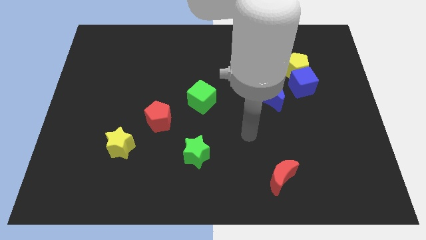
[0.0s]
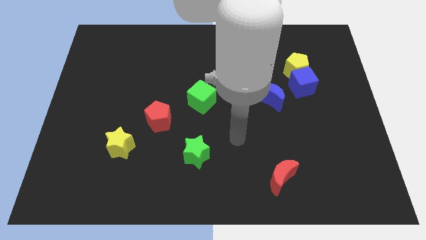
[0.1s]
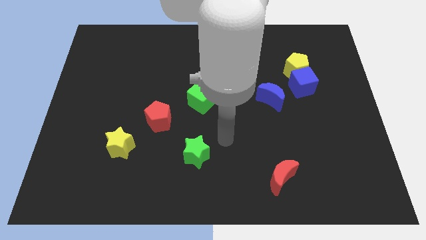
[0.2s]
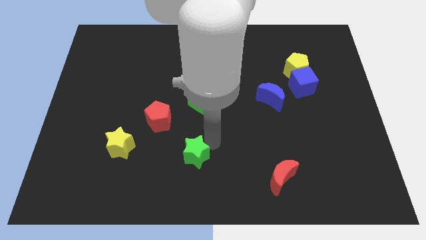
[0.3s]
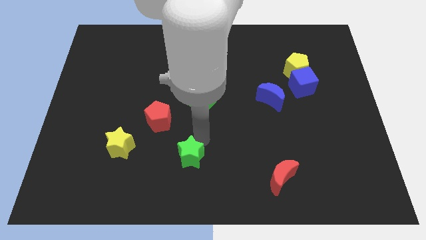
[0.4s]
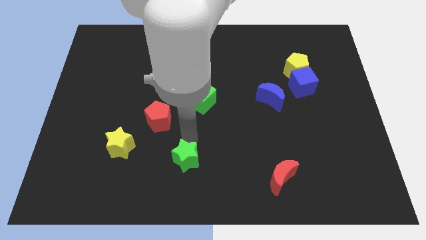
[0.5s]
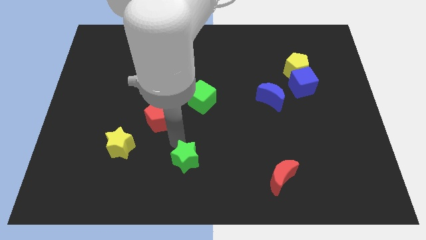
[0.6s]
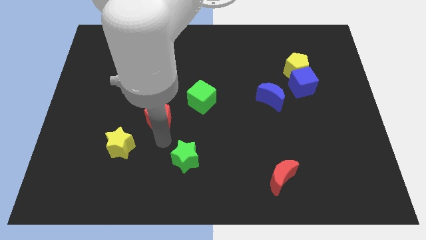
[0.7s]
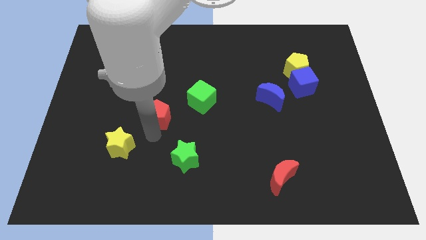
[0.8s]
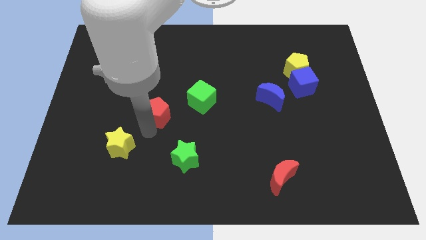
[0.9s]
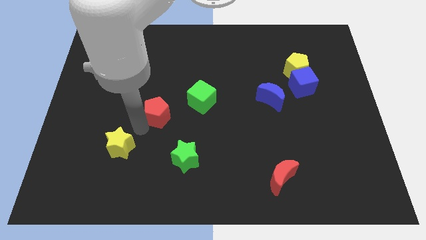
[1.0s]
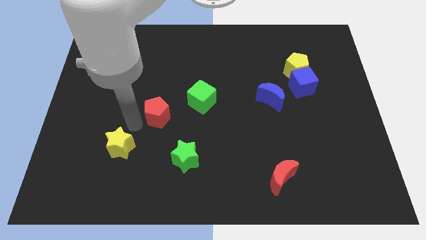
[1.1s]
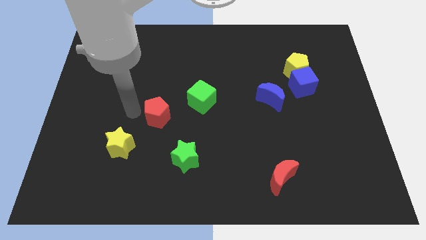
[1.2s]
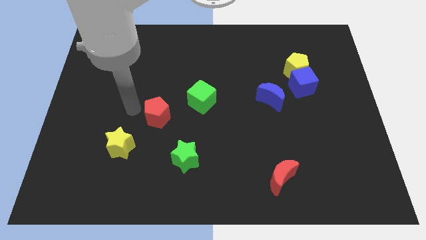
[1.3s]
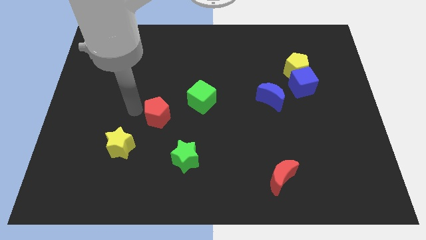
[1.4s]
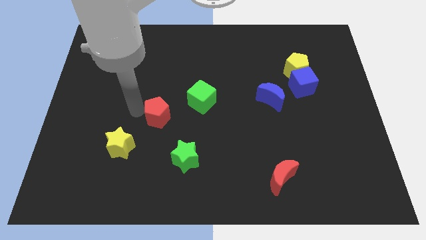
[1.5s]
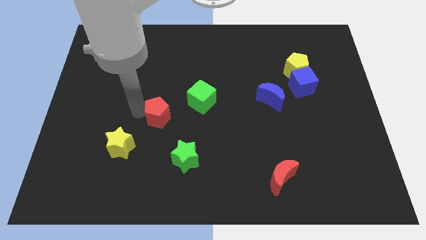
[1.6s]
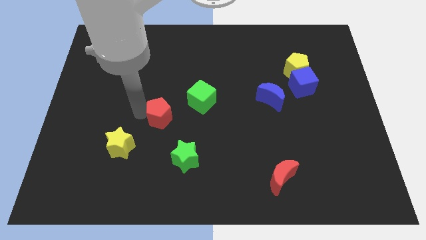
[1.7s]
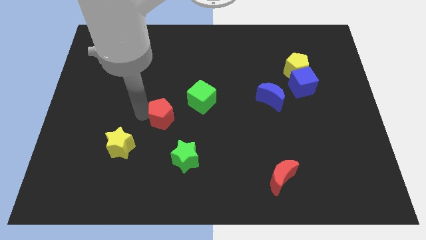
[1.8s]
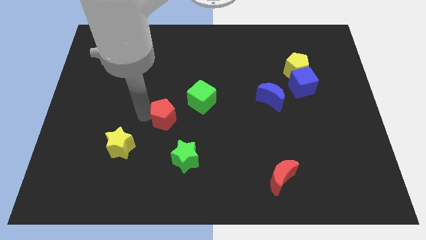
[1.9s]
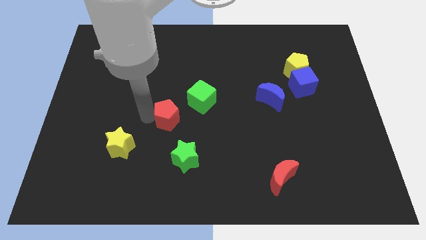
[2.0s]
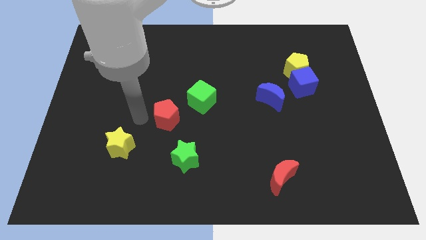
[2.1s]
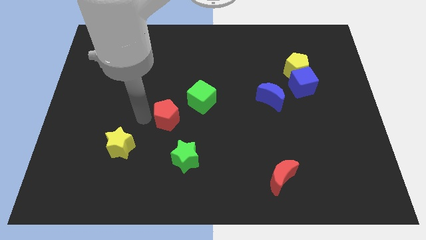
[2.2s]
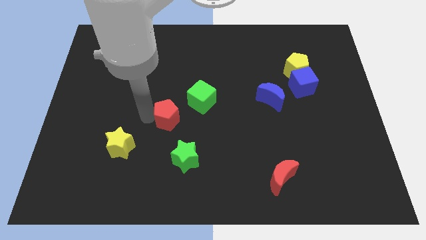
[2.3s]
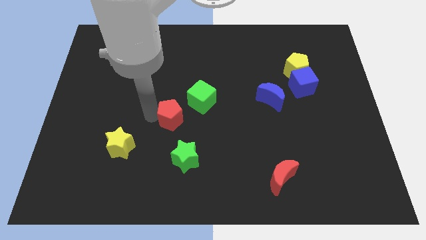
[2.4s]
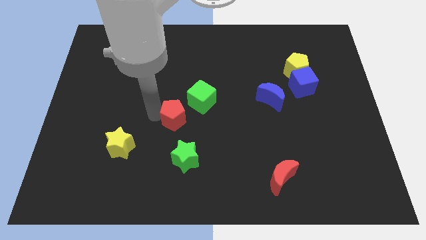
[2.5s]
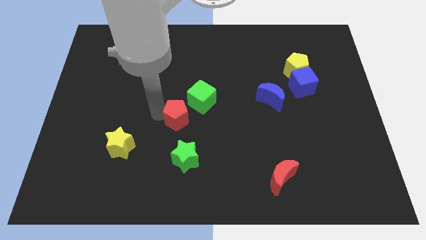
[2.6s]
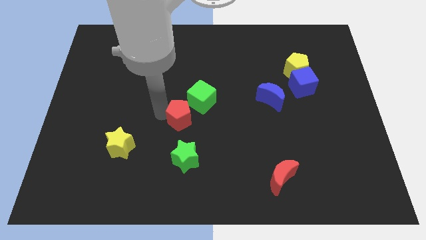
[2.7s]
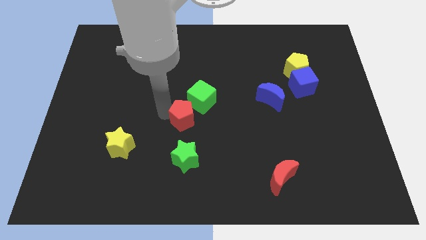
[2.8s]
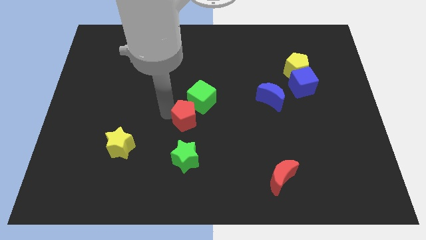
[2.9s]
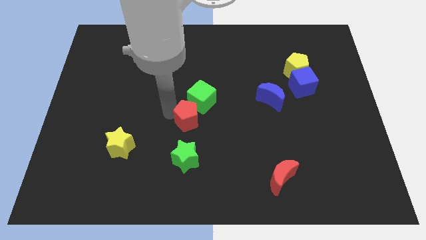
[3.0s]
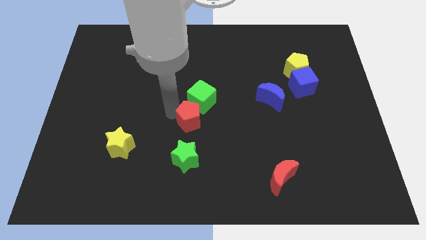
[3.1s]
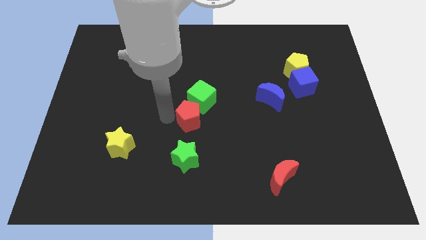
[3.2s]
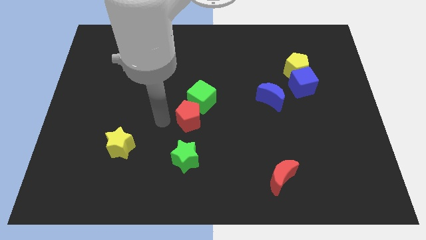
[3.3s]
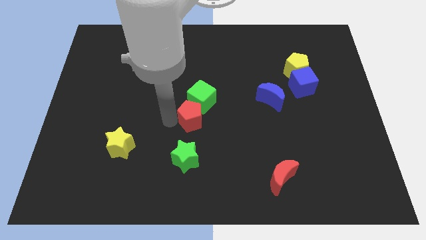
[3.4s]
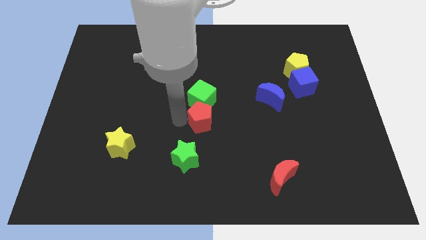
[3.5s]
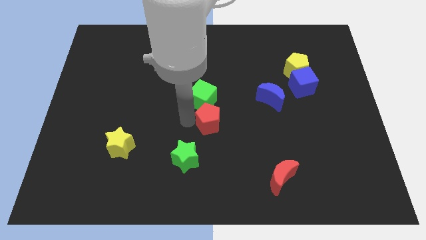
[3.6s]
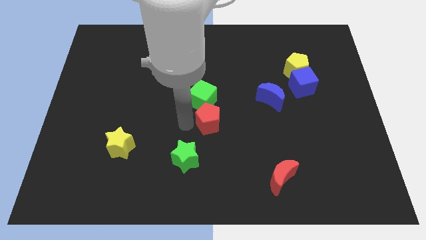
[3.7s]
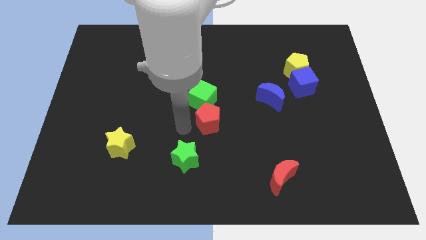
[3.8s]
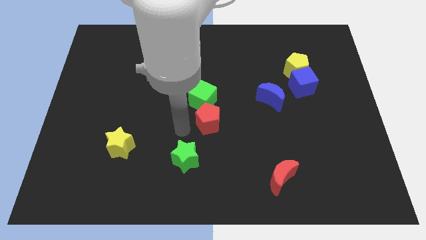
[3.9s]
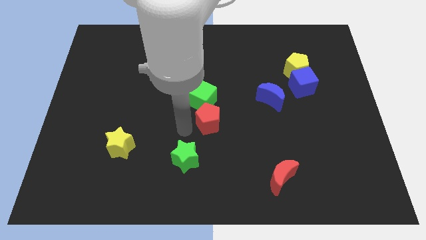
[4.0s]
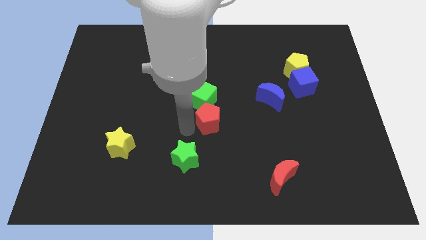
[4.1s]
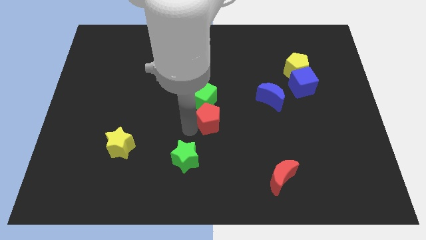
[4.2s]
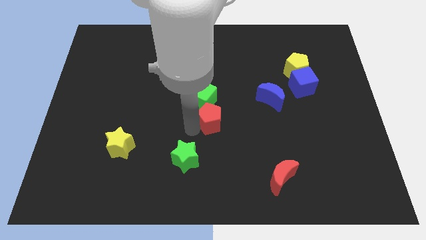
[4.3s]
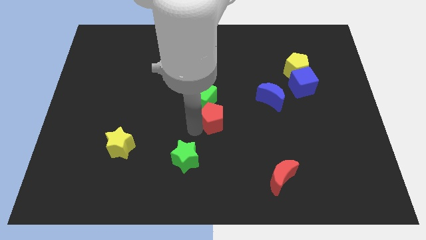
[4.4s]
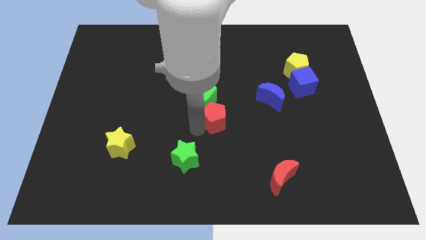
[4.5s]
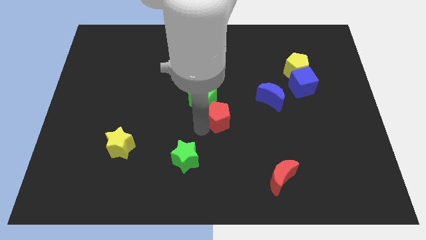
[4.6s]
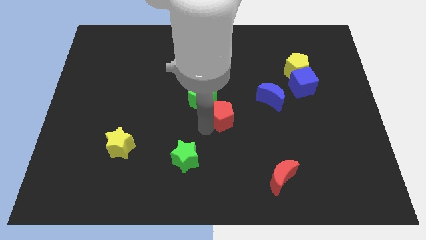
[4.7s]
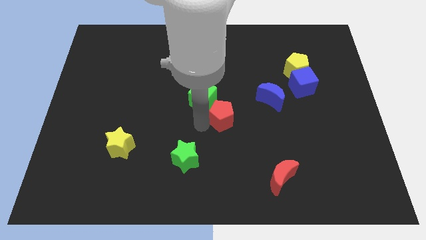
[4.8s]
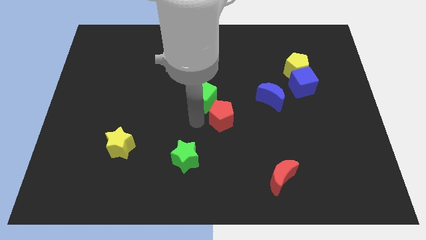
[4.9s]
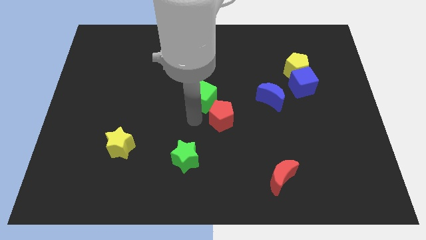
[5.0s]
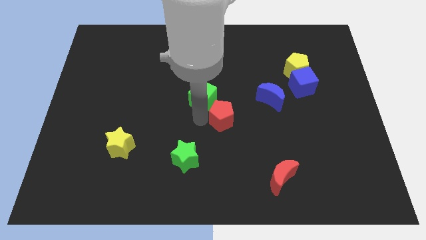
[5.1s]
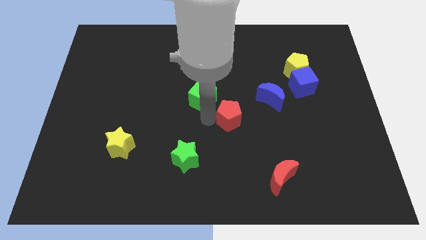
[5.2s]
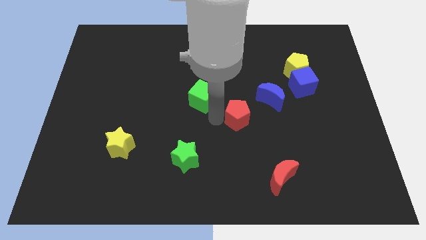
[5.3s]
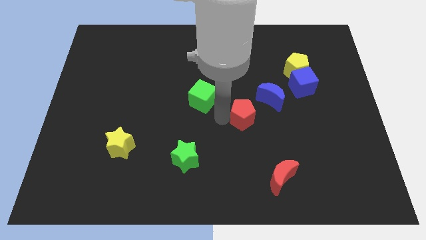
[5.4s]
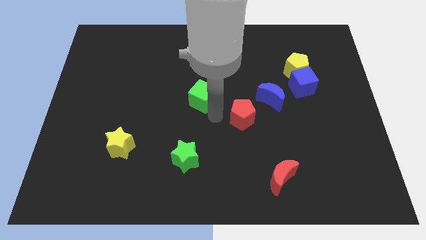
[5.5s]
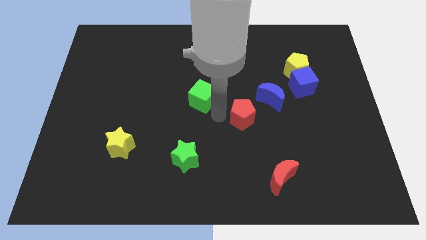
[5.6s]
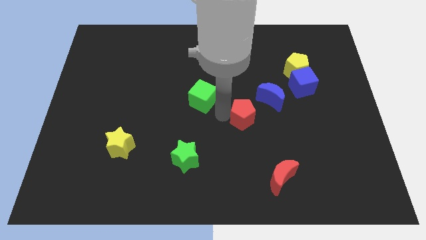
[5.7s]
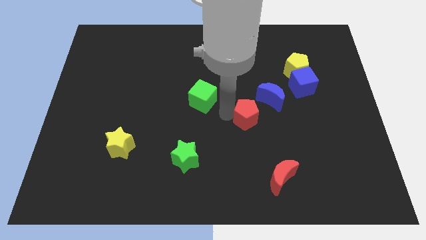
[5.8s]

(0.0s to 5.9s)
push the red pentagon to the right

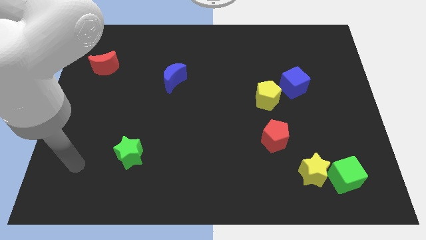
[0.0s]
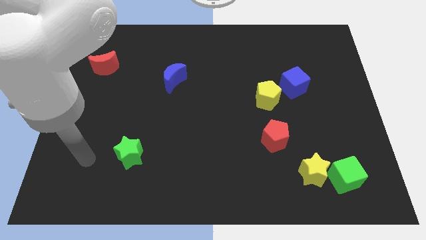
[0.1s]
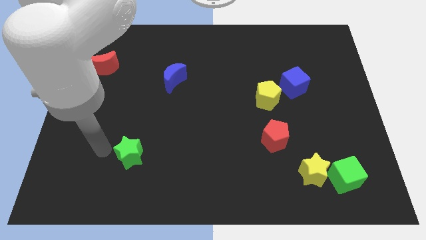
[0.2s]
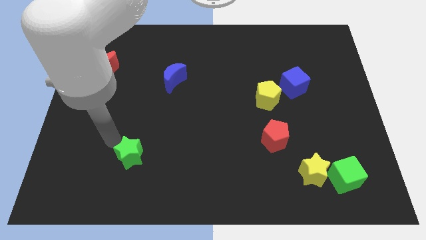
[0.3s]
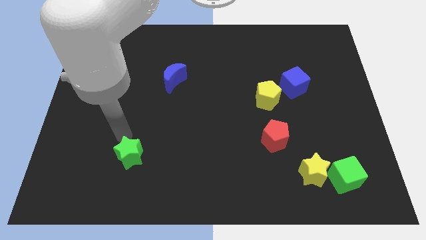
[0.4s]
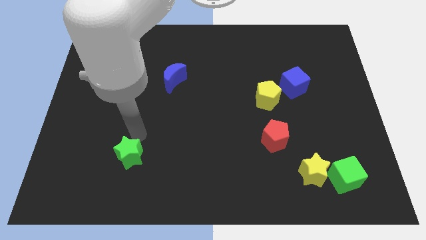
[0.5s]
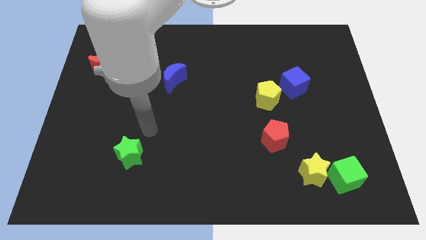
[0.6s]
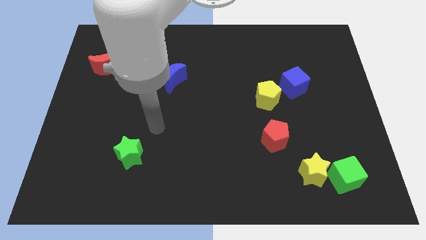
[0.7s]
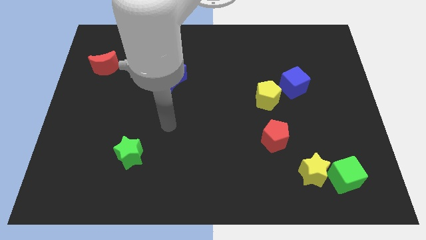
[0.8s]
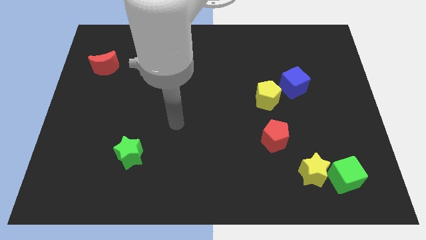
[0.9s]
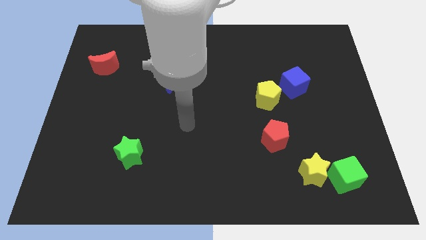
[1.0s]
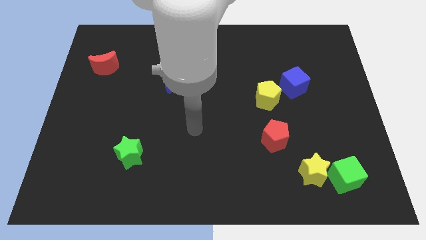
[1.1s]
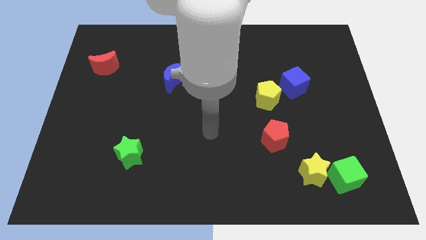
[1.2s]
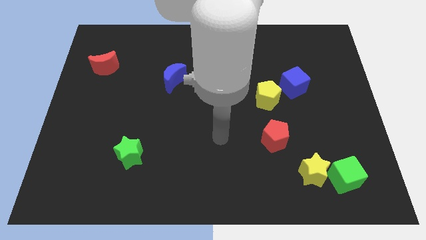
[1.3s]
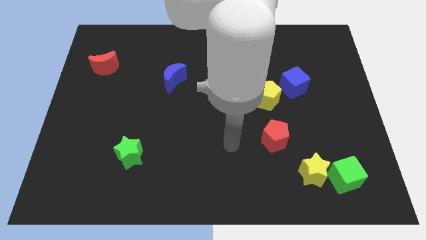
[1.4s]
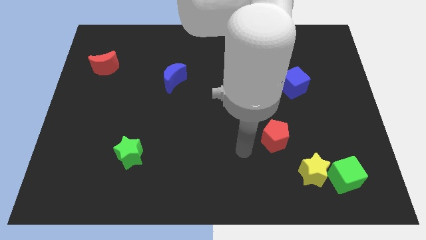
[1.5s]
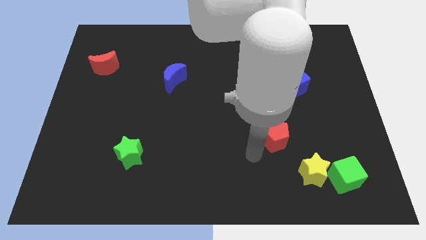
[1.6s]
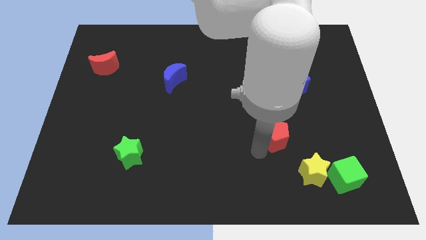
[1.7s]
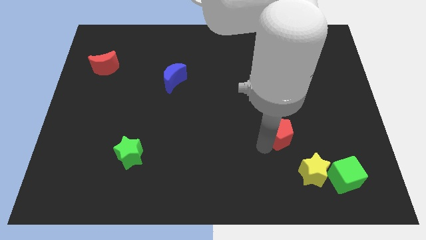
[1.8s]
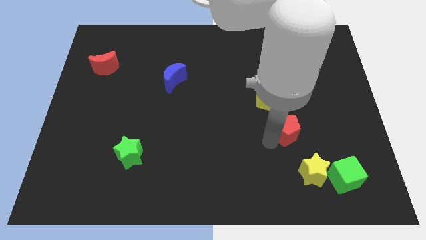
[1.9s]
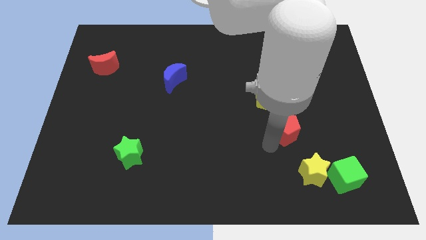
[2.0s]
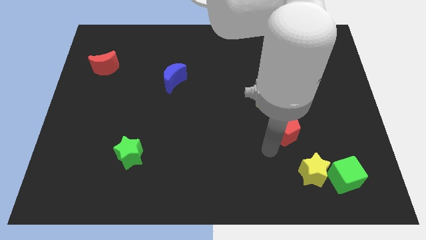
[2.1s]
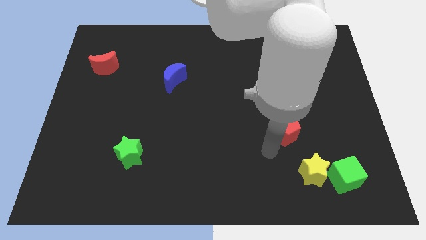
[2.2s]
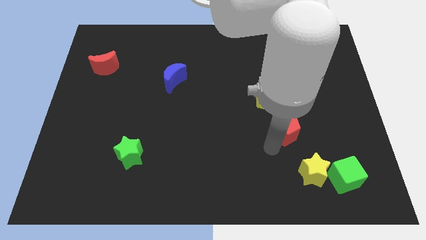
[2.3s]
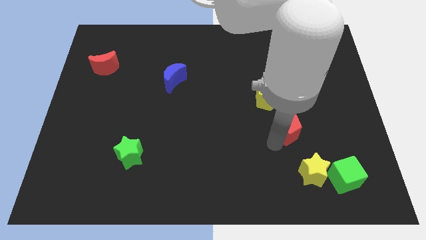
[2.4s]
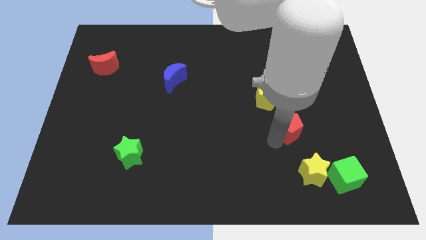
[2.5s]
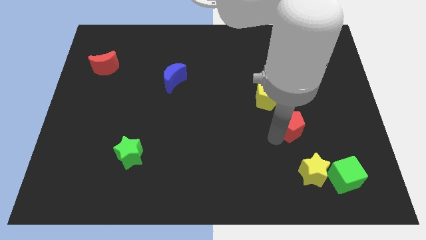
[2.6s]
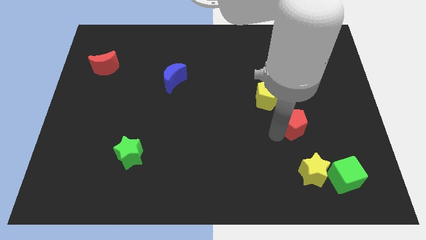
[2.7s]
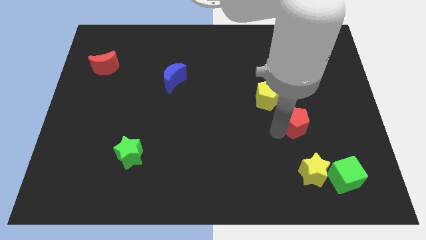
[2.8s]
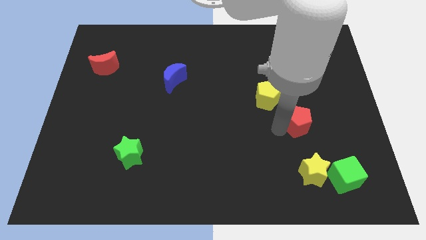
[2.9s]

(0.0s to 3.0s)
slightly push the red pentagon up and then right

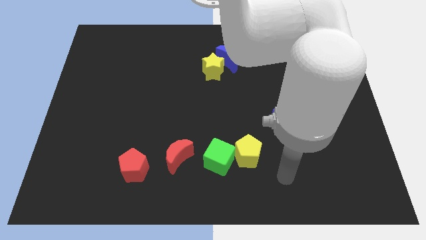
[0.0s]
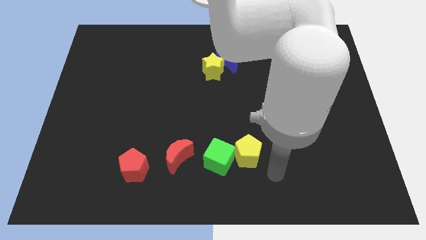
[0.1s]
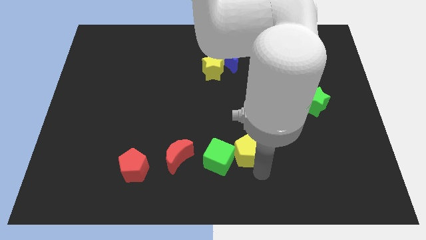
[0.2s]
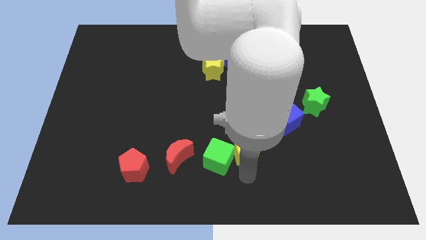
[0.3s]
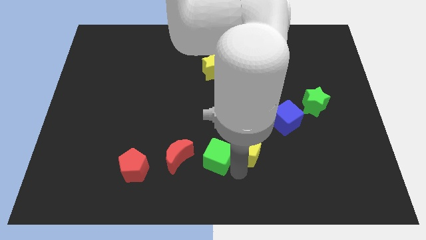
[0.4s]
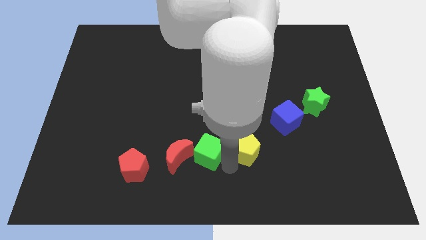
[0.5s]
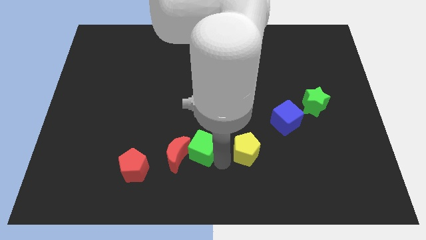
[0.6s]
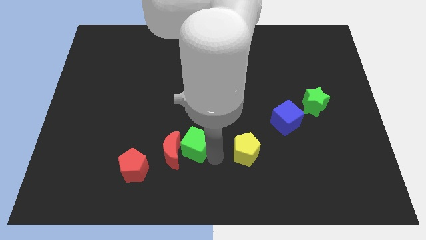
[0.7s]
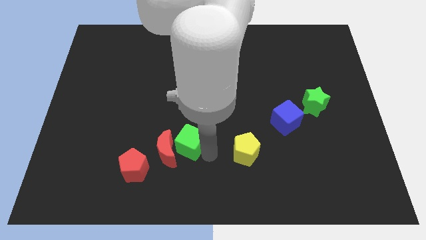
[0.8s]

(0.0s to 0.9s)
slightly push the green cube up and to the left
